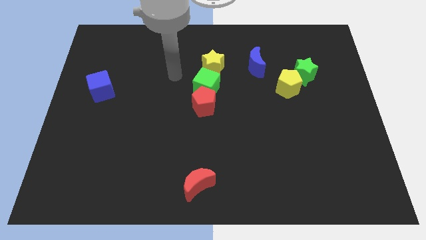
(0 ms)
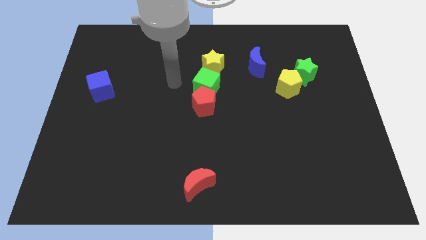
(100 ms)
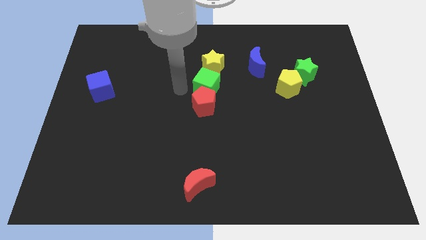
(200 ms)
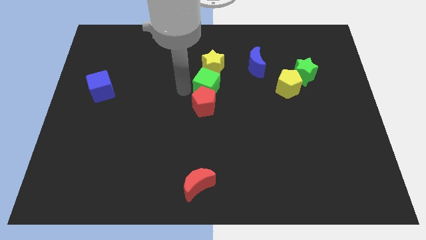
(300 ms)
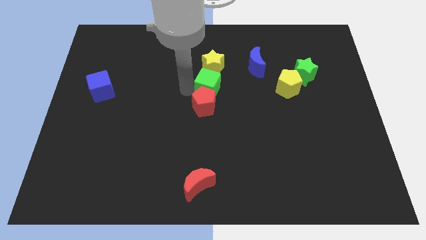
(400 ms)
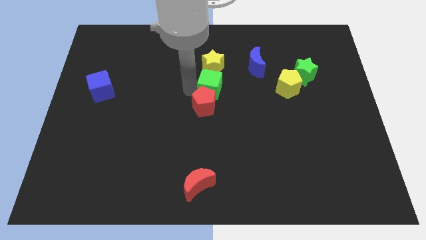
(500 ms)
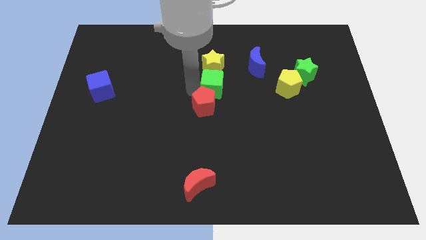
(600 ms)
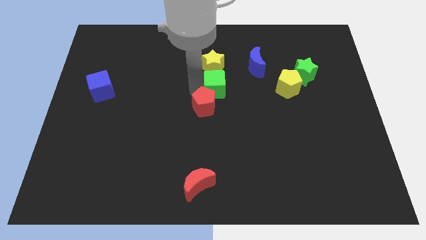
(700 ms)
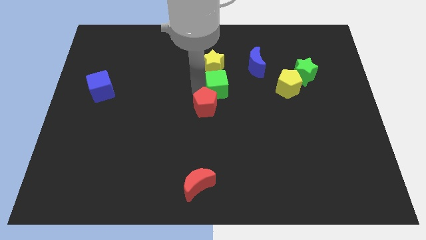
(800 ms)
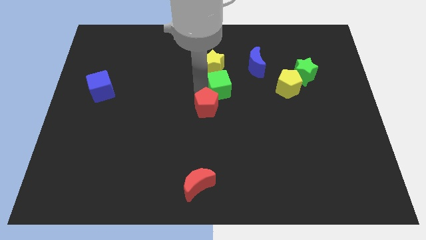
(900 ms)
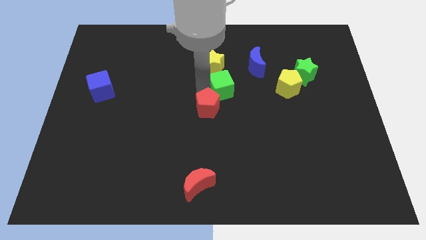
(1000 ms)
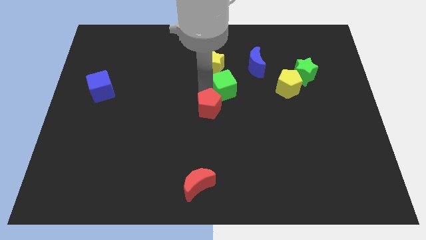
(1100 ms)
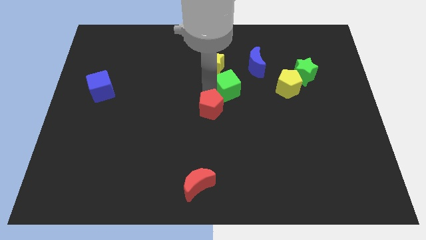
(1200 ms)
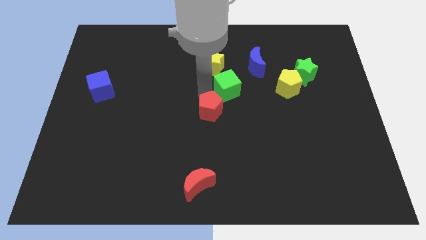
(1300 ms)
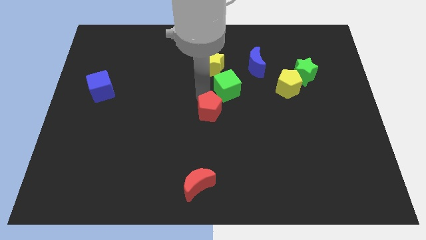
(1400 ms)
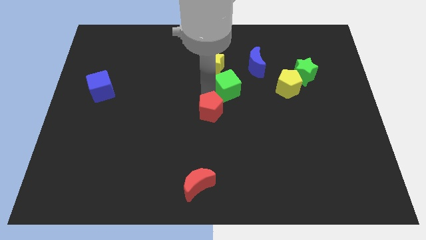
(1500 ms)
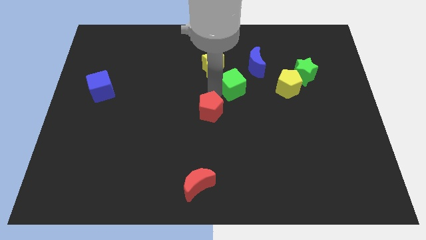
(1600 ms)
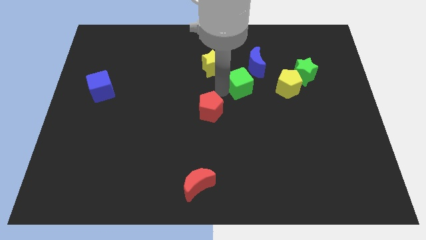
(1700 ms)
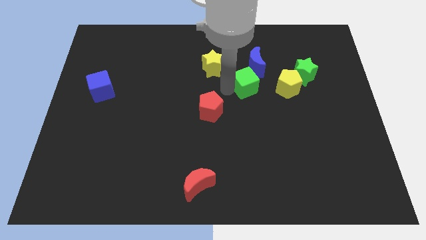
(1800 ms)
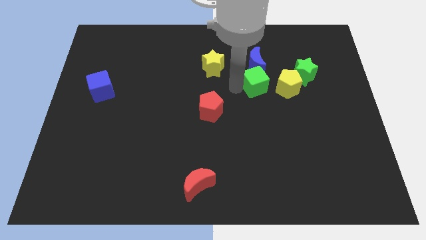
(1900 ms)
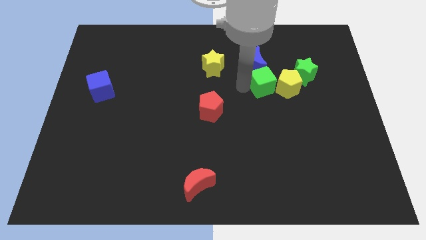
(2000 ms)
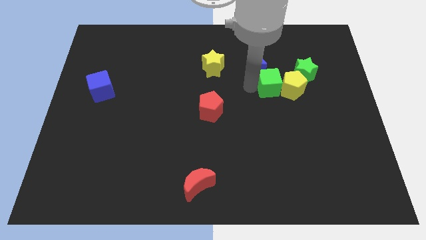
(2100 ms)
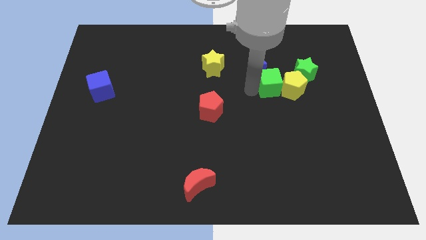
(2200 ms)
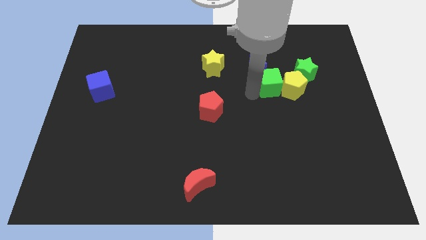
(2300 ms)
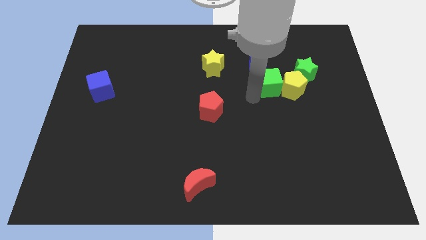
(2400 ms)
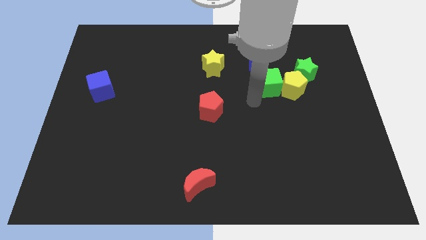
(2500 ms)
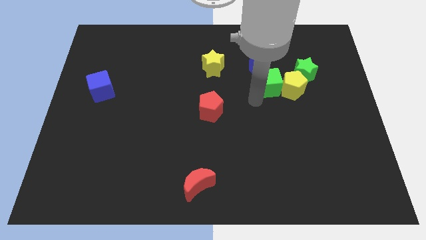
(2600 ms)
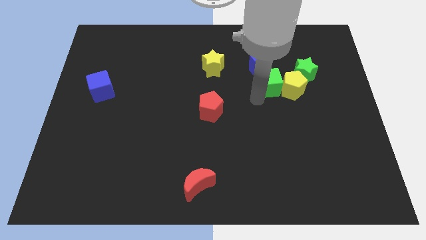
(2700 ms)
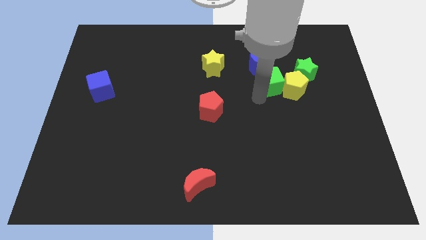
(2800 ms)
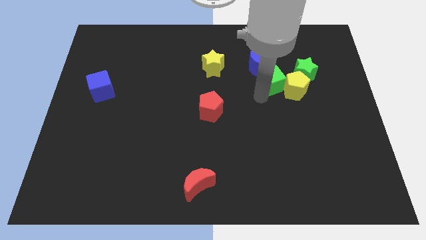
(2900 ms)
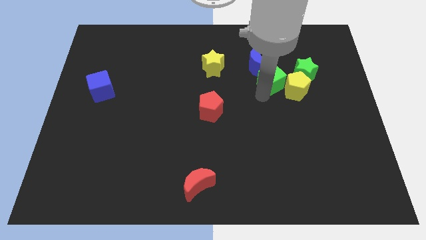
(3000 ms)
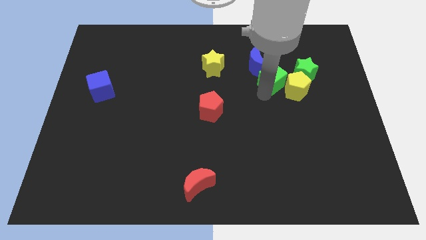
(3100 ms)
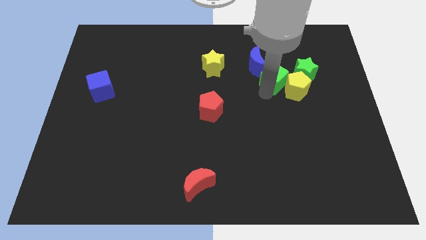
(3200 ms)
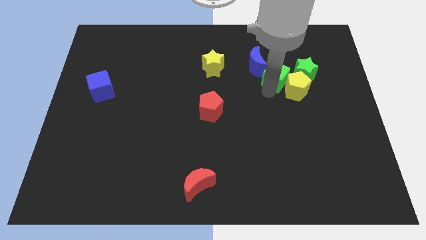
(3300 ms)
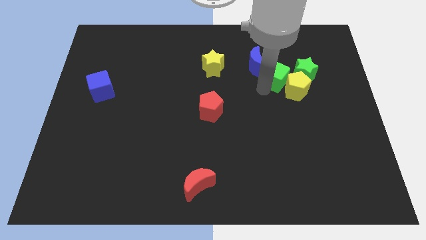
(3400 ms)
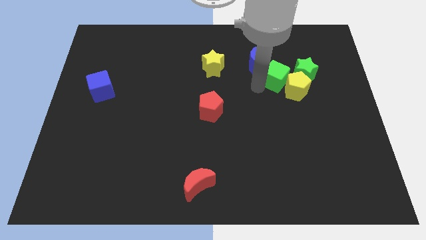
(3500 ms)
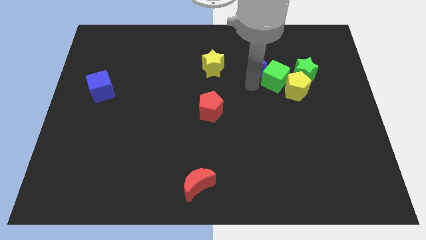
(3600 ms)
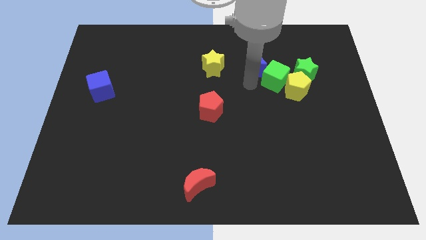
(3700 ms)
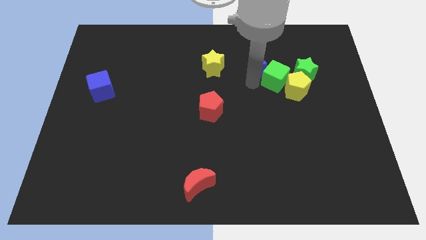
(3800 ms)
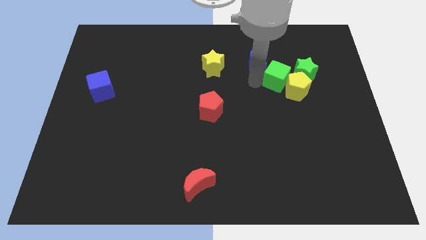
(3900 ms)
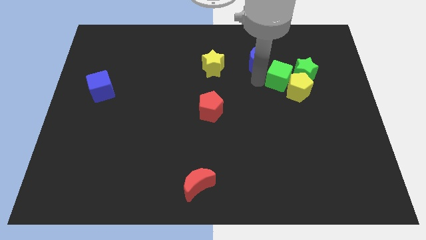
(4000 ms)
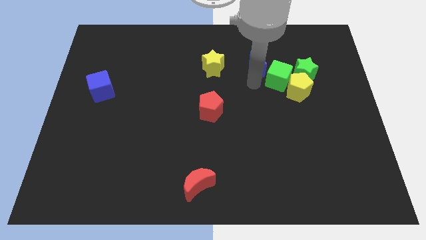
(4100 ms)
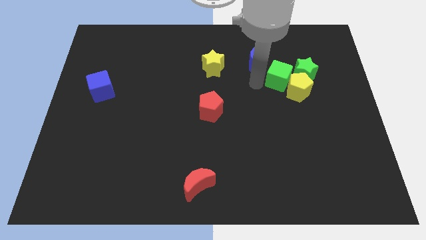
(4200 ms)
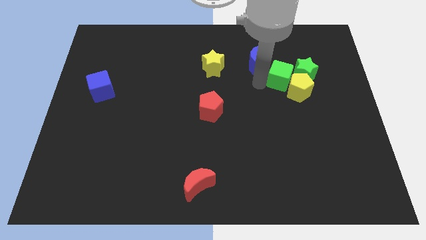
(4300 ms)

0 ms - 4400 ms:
push the green cube next to the green star

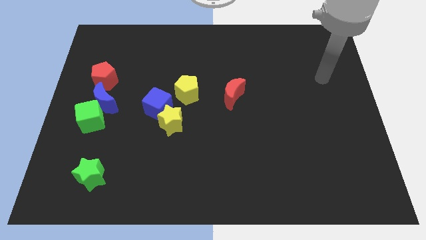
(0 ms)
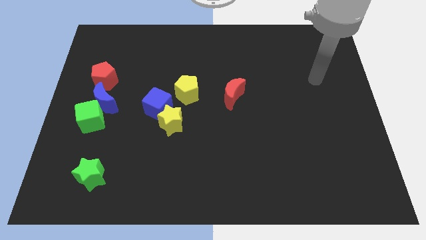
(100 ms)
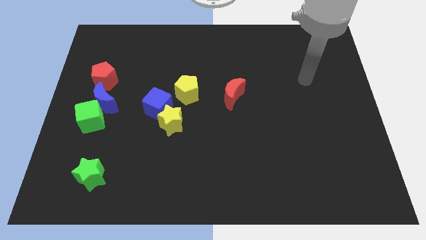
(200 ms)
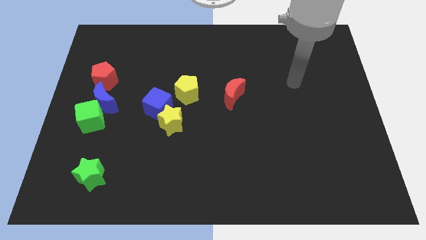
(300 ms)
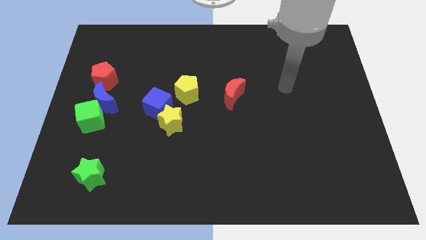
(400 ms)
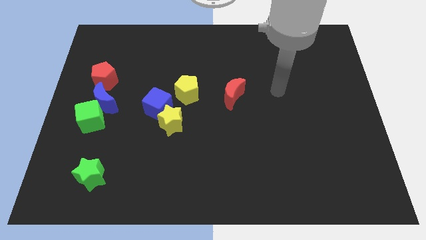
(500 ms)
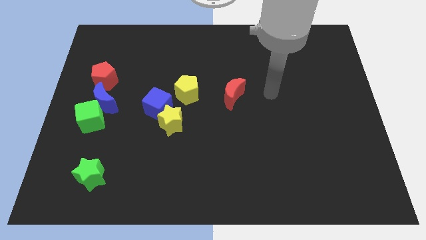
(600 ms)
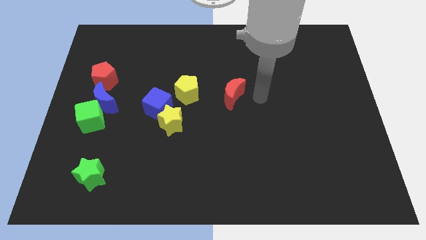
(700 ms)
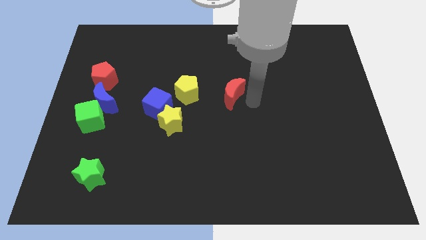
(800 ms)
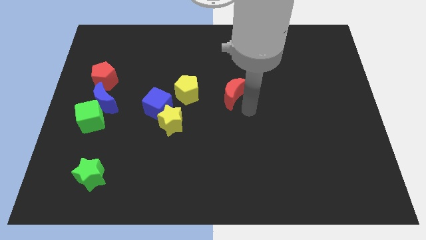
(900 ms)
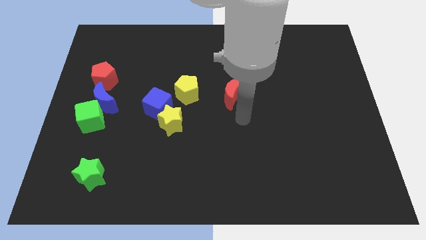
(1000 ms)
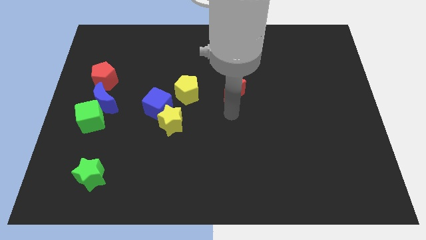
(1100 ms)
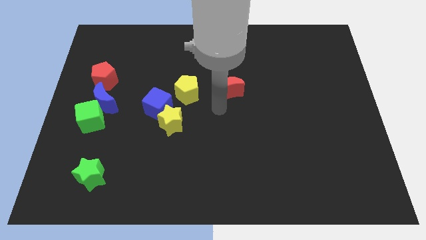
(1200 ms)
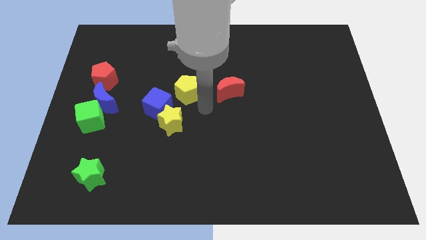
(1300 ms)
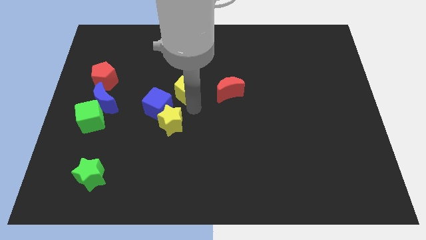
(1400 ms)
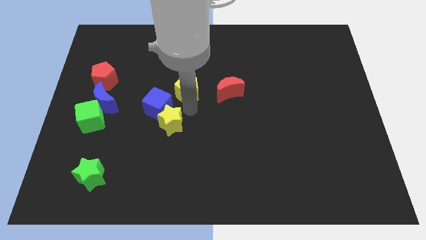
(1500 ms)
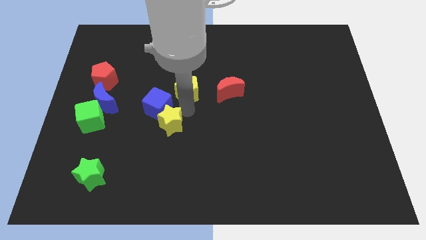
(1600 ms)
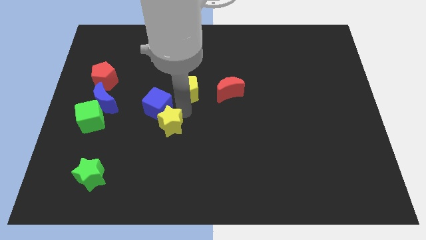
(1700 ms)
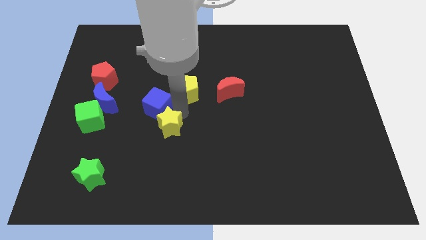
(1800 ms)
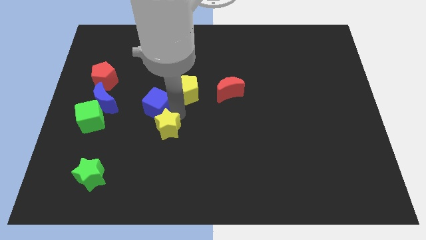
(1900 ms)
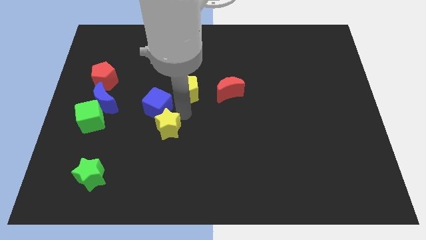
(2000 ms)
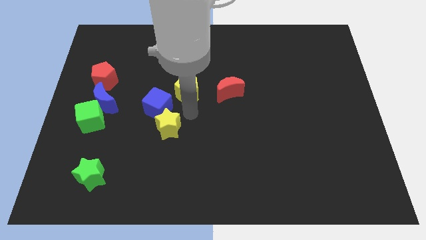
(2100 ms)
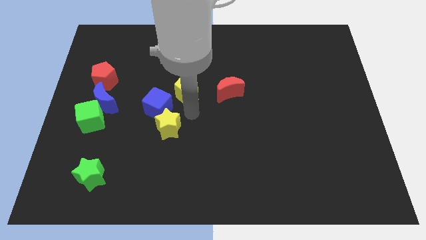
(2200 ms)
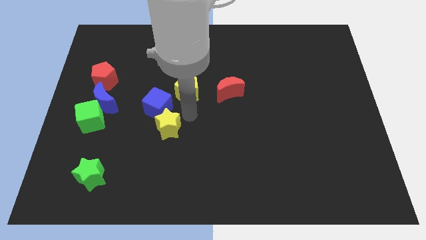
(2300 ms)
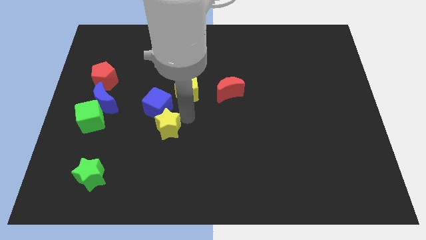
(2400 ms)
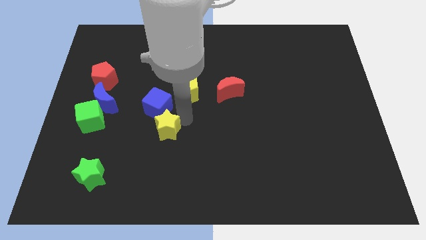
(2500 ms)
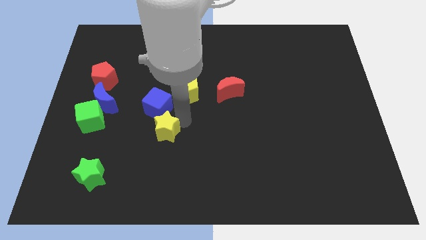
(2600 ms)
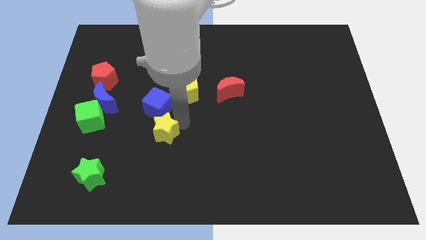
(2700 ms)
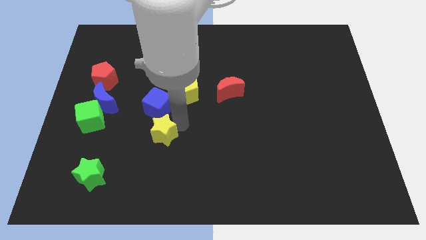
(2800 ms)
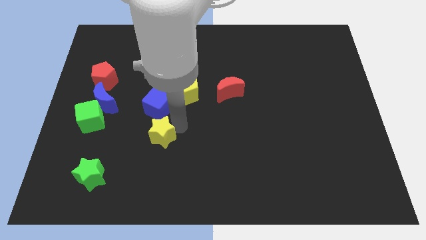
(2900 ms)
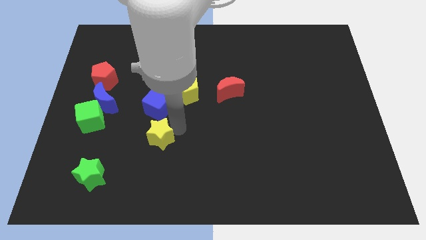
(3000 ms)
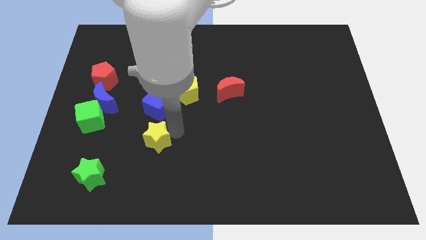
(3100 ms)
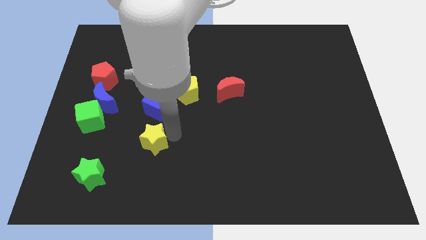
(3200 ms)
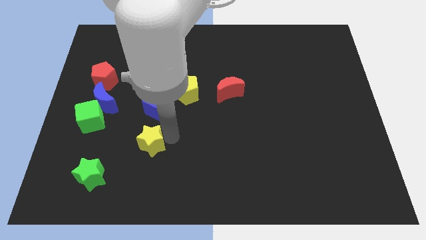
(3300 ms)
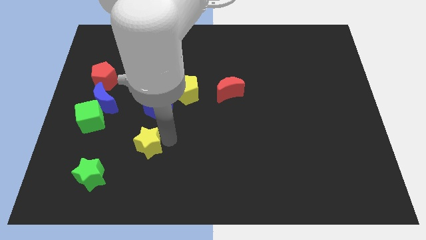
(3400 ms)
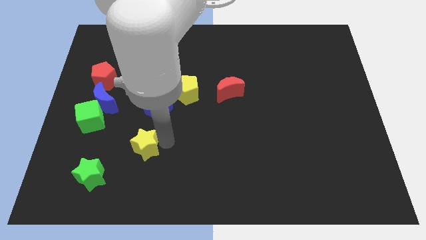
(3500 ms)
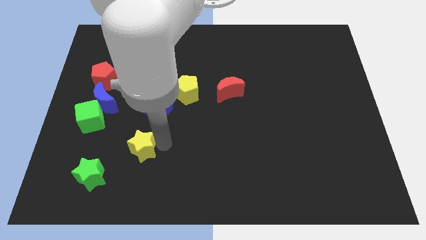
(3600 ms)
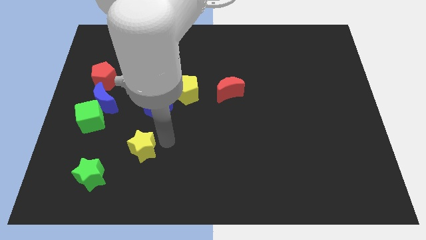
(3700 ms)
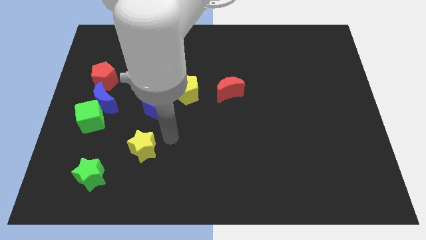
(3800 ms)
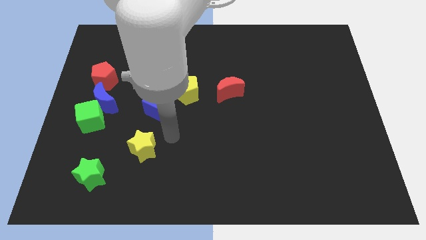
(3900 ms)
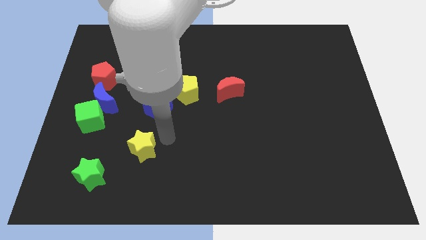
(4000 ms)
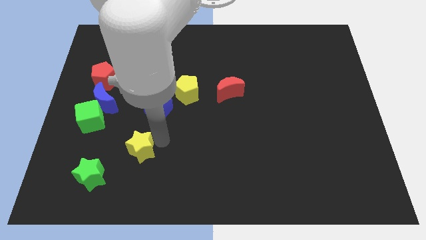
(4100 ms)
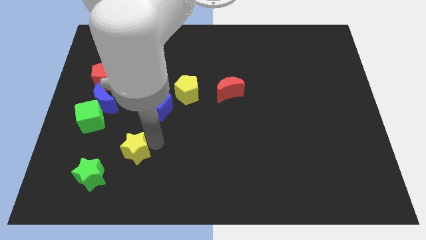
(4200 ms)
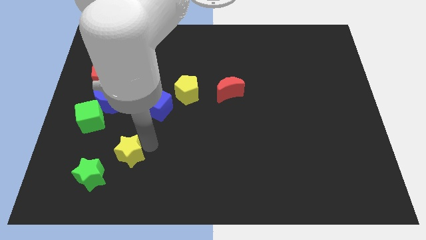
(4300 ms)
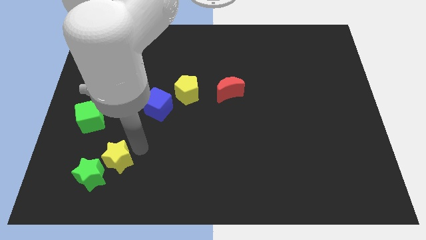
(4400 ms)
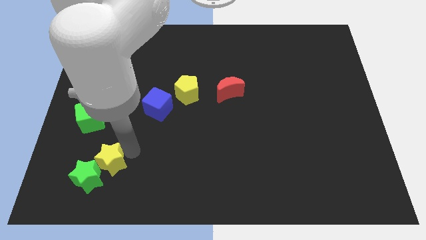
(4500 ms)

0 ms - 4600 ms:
push the yellow star close to the green star
